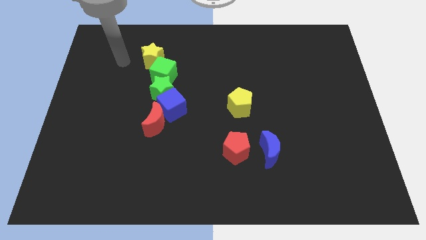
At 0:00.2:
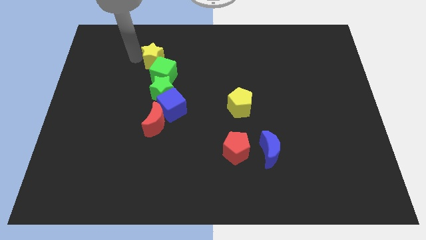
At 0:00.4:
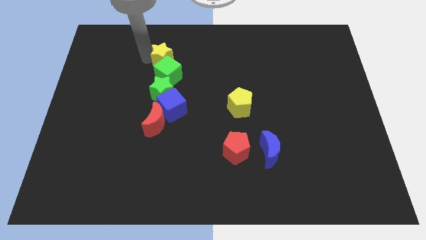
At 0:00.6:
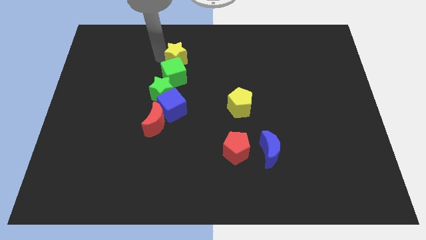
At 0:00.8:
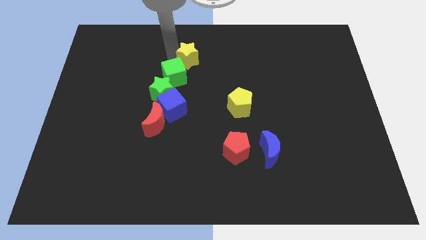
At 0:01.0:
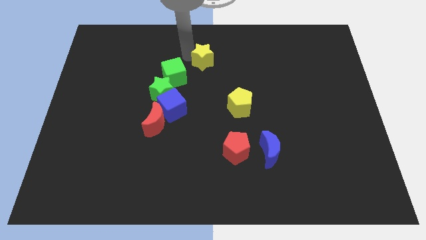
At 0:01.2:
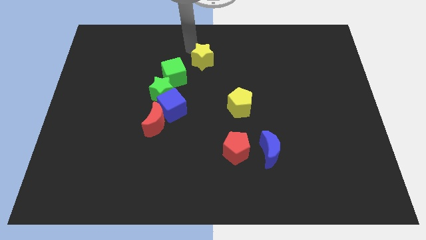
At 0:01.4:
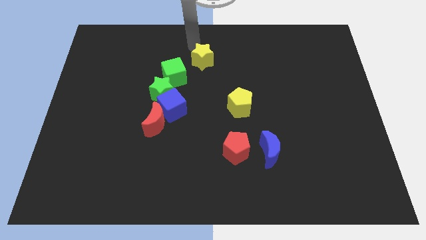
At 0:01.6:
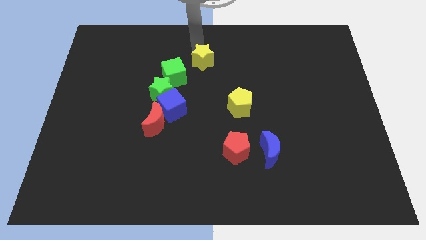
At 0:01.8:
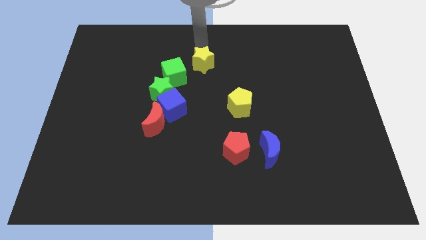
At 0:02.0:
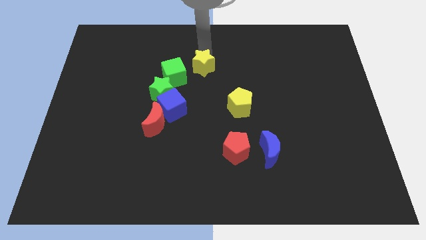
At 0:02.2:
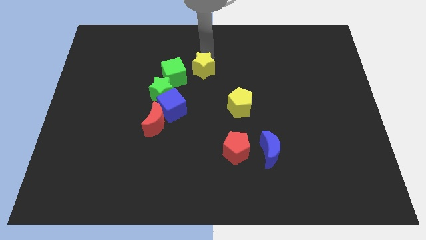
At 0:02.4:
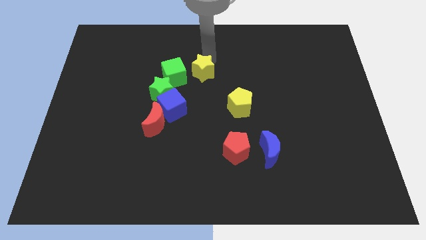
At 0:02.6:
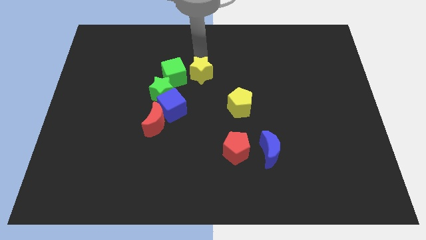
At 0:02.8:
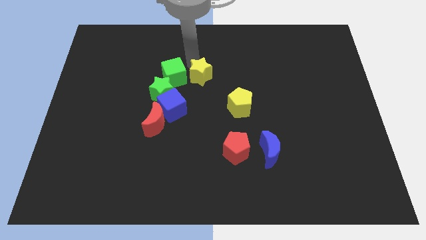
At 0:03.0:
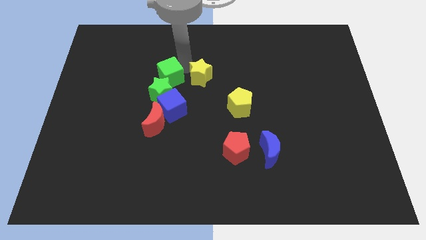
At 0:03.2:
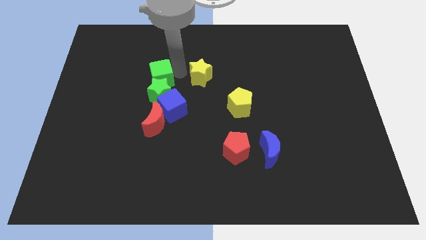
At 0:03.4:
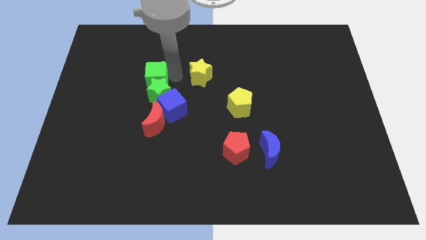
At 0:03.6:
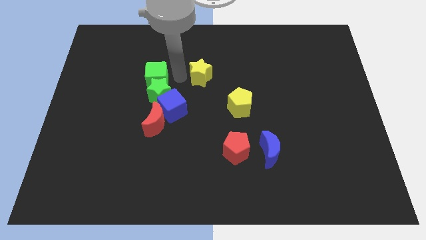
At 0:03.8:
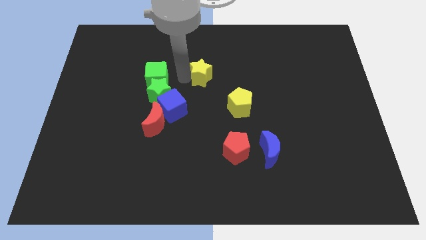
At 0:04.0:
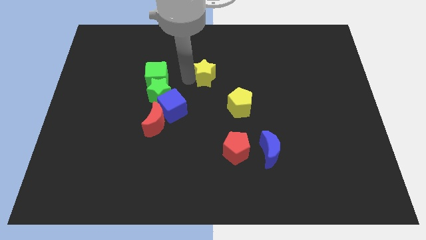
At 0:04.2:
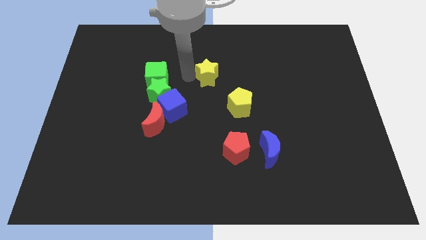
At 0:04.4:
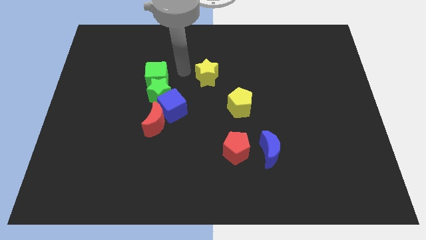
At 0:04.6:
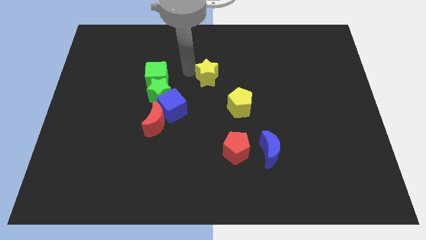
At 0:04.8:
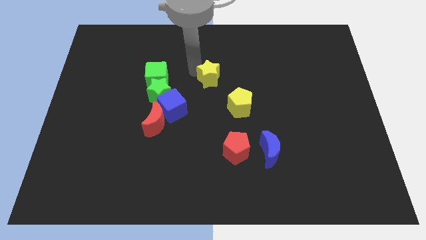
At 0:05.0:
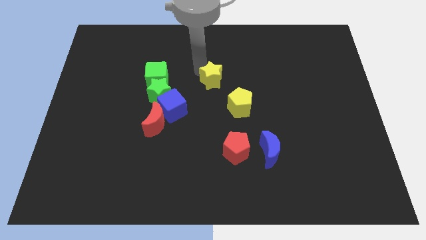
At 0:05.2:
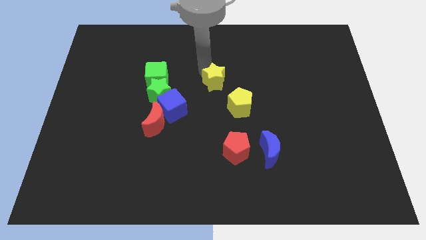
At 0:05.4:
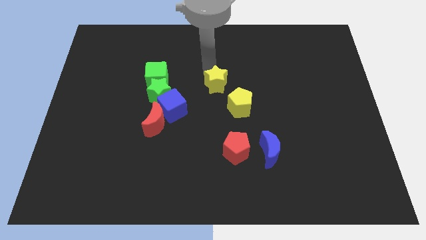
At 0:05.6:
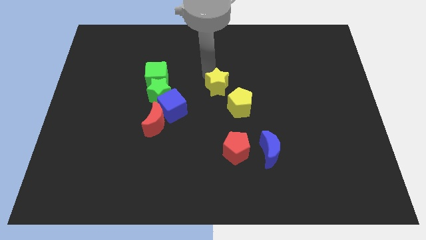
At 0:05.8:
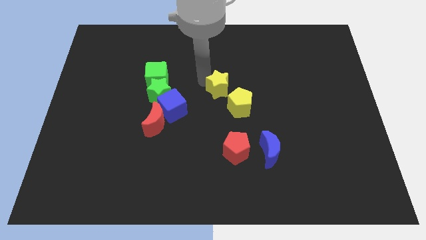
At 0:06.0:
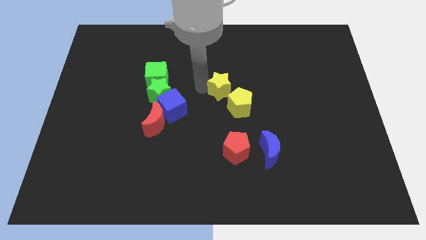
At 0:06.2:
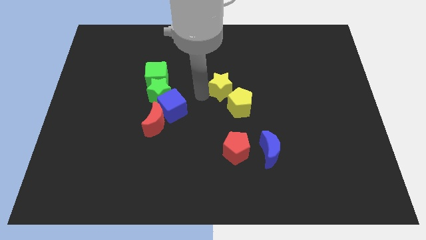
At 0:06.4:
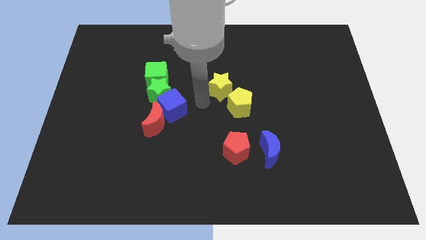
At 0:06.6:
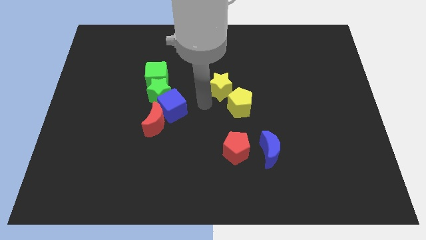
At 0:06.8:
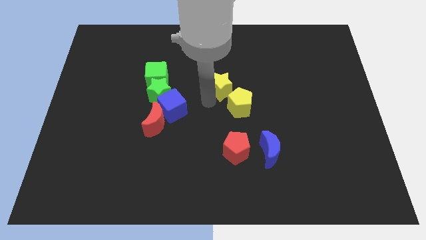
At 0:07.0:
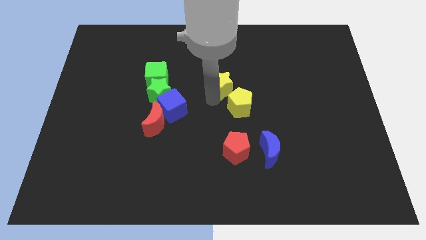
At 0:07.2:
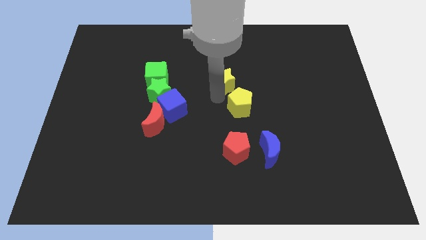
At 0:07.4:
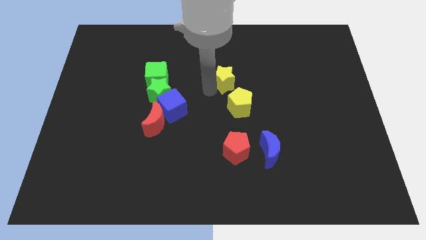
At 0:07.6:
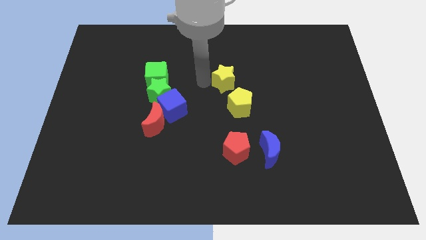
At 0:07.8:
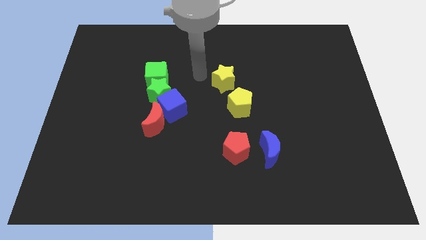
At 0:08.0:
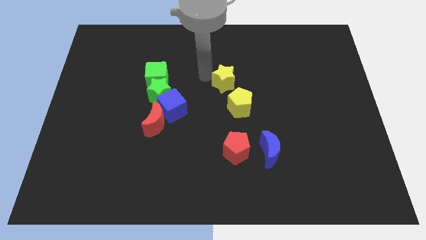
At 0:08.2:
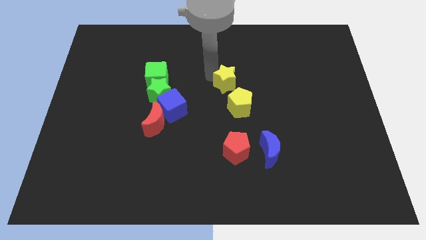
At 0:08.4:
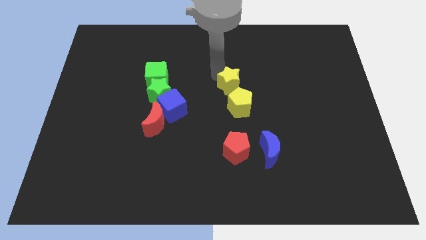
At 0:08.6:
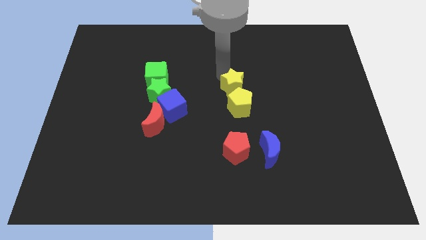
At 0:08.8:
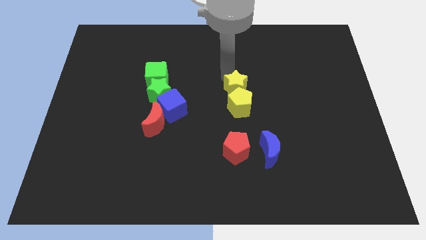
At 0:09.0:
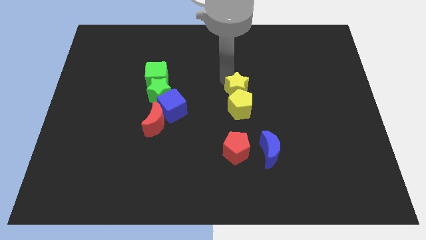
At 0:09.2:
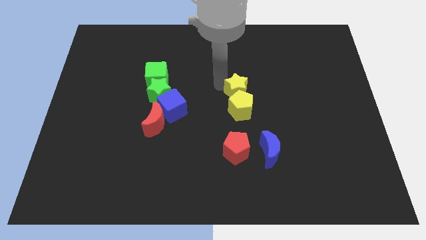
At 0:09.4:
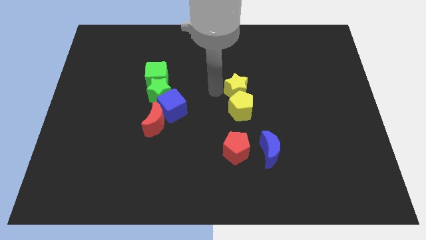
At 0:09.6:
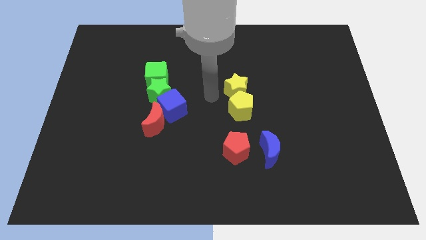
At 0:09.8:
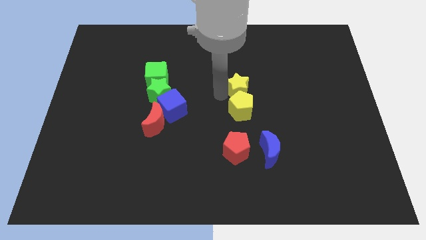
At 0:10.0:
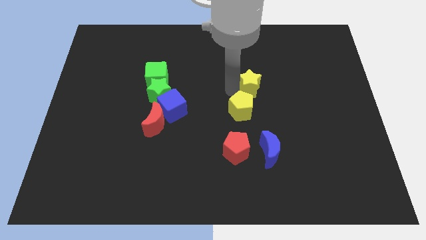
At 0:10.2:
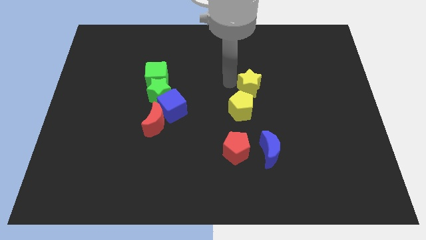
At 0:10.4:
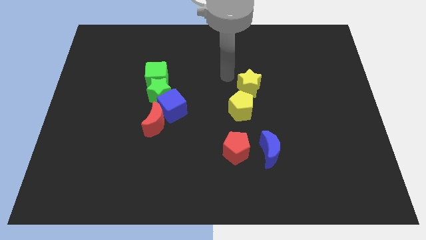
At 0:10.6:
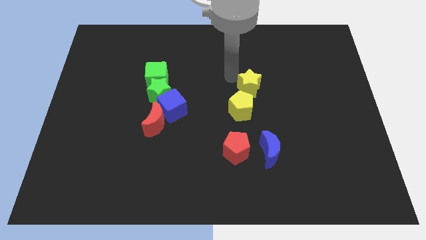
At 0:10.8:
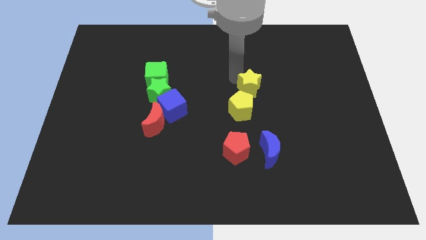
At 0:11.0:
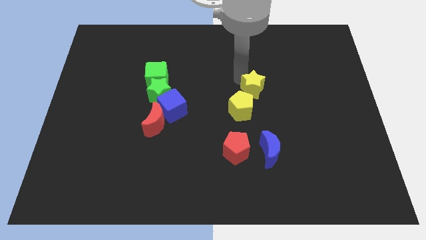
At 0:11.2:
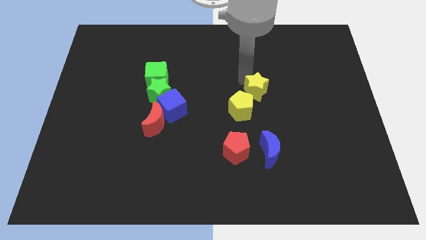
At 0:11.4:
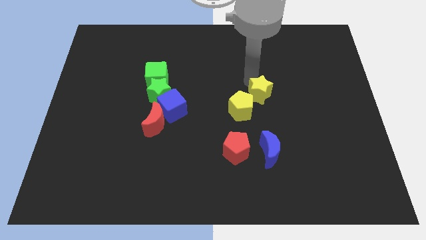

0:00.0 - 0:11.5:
move the yellow star right of the yellow pentagon

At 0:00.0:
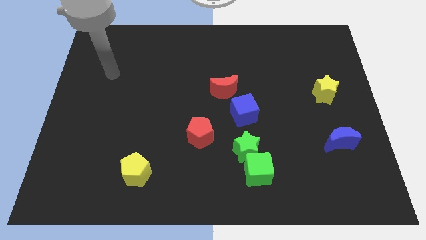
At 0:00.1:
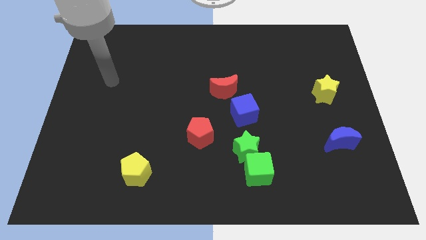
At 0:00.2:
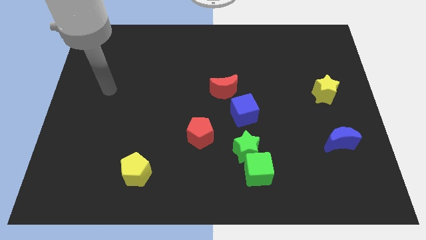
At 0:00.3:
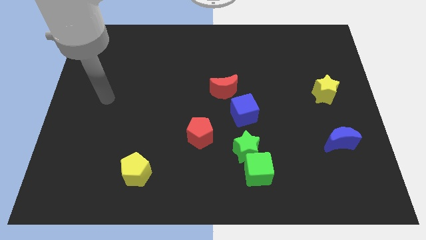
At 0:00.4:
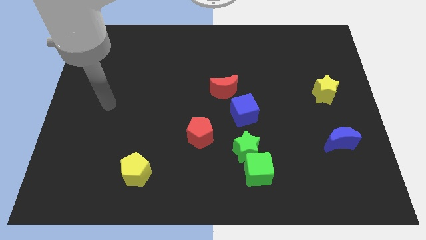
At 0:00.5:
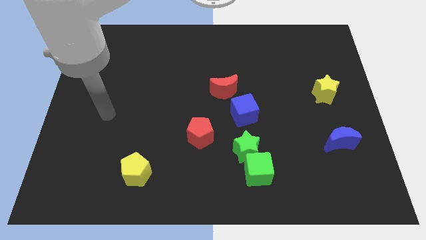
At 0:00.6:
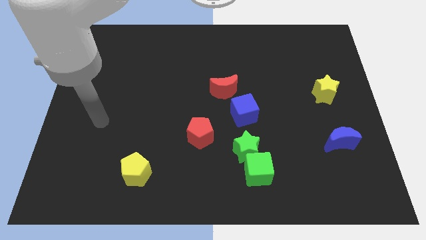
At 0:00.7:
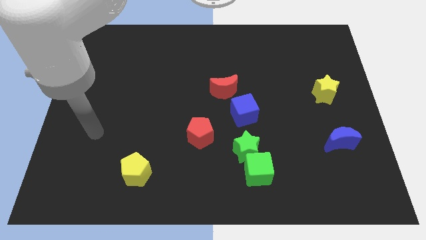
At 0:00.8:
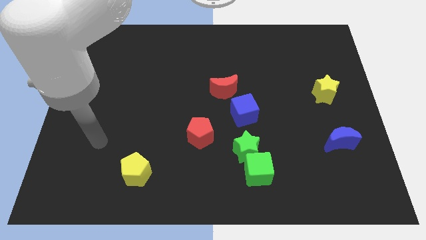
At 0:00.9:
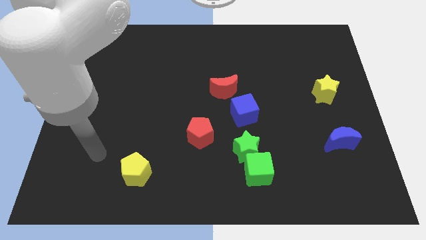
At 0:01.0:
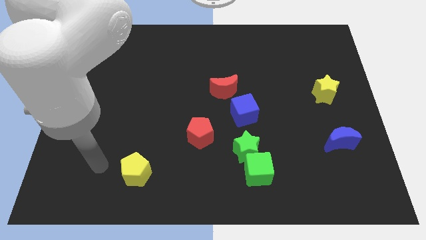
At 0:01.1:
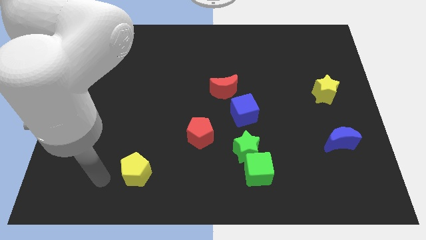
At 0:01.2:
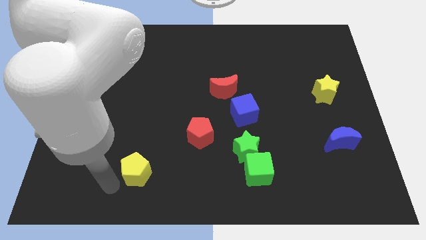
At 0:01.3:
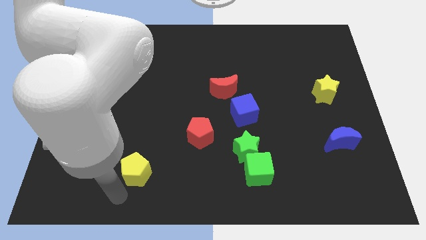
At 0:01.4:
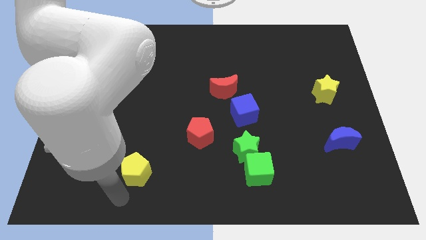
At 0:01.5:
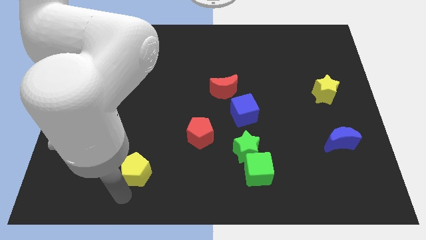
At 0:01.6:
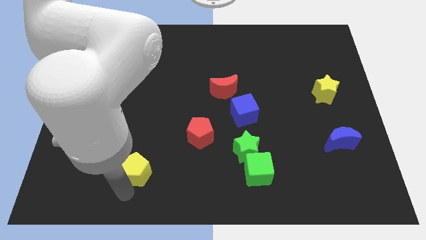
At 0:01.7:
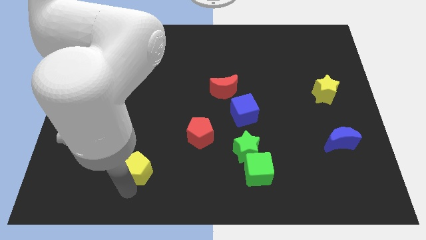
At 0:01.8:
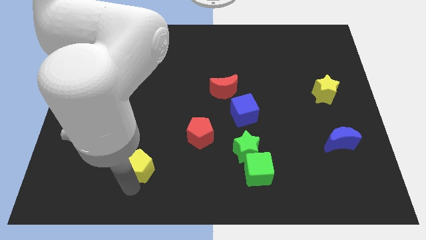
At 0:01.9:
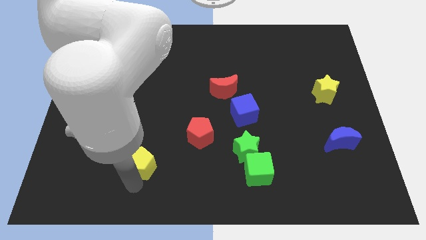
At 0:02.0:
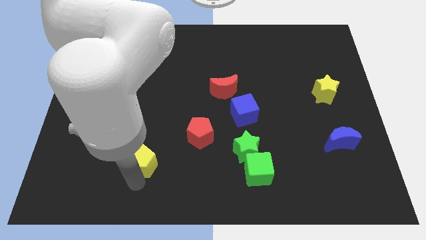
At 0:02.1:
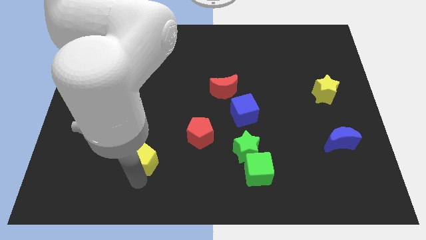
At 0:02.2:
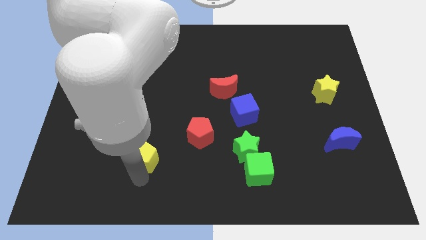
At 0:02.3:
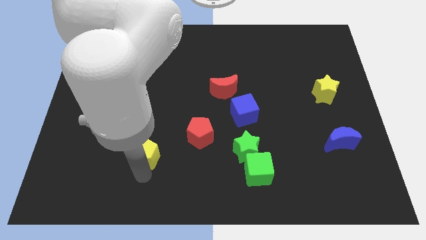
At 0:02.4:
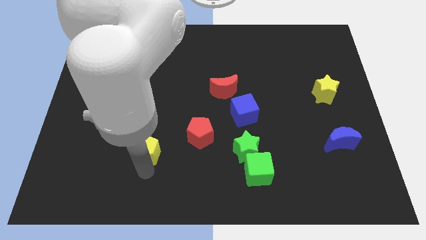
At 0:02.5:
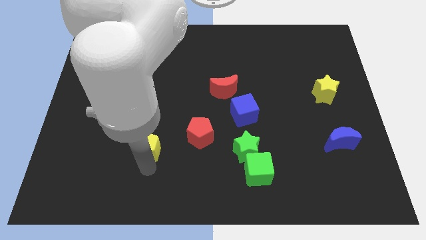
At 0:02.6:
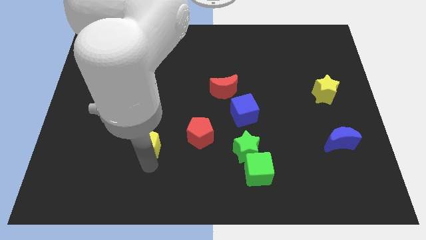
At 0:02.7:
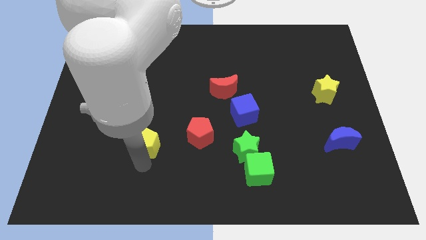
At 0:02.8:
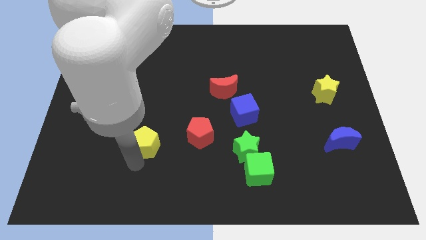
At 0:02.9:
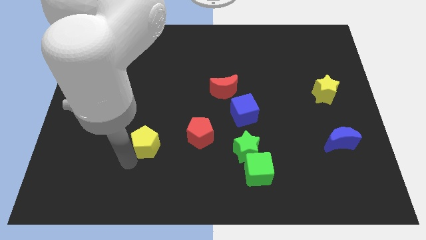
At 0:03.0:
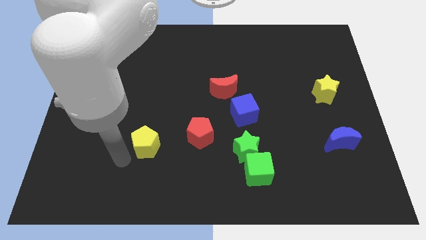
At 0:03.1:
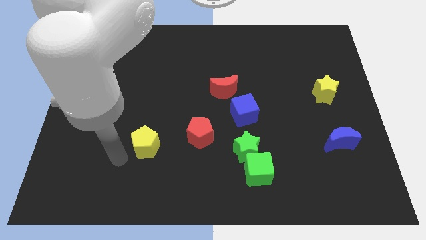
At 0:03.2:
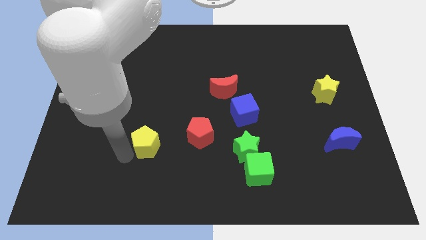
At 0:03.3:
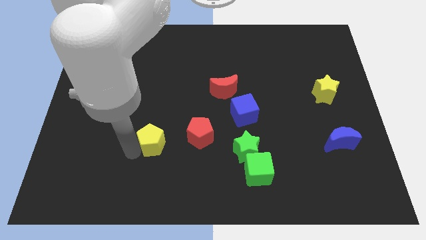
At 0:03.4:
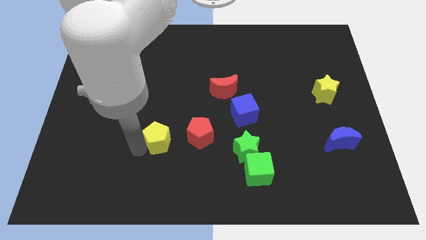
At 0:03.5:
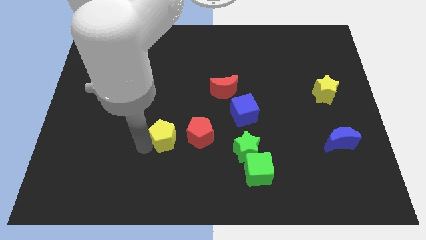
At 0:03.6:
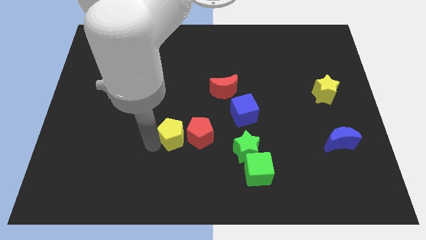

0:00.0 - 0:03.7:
put the yellow pentagon diagonally up and to the left of the red pentagon
